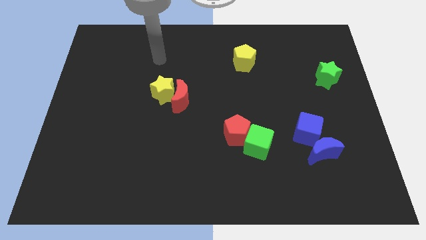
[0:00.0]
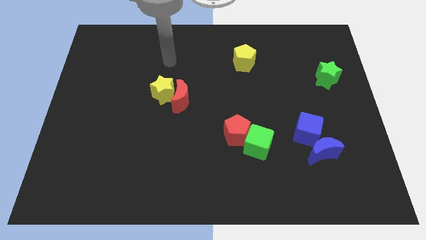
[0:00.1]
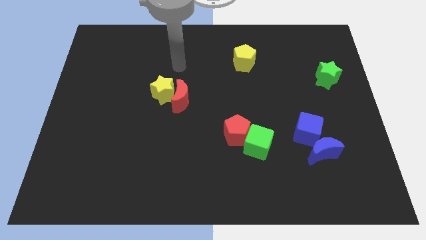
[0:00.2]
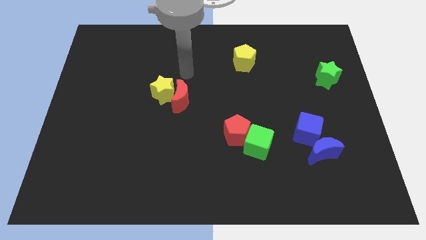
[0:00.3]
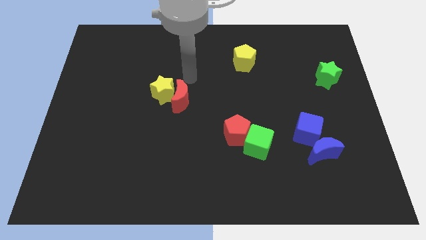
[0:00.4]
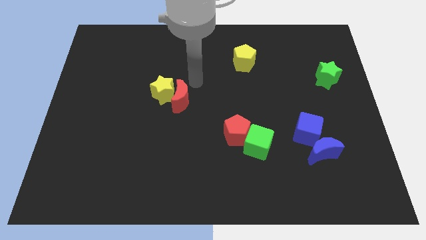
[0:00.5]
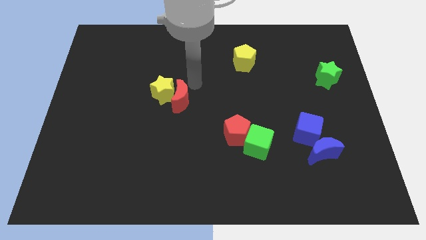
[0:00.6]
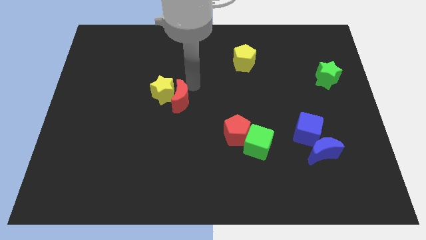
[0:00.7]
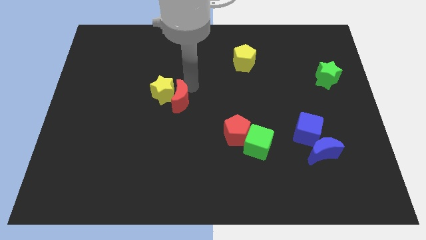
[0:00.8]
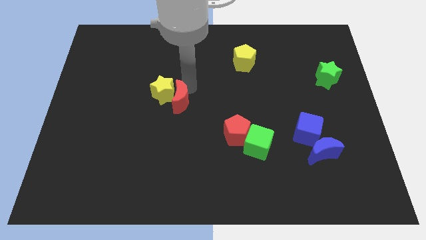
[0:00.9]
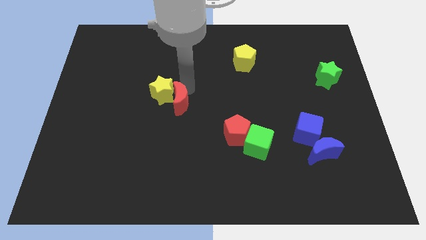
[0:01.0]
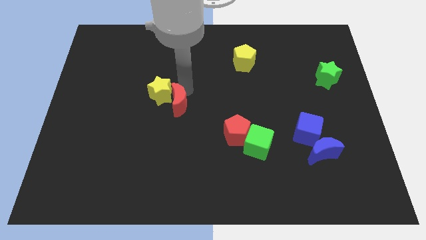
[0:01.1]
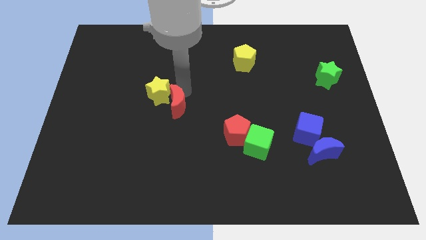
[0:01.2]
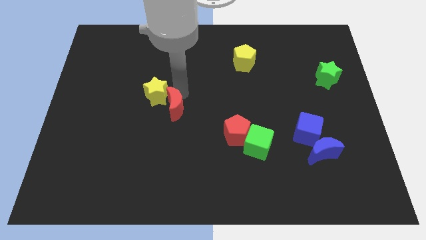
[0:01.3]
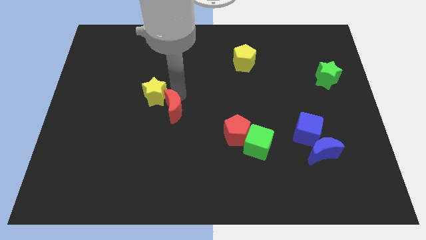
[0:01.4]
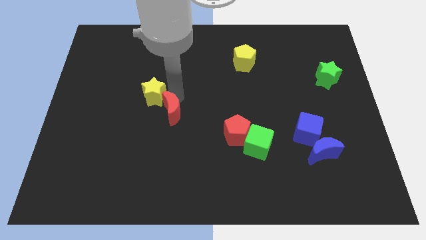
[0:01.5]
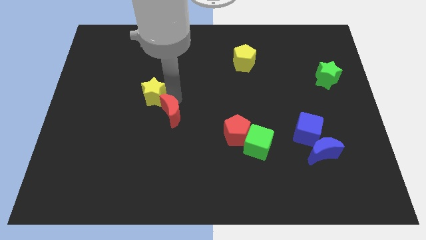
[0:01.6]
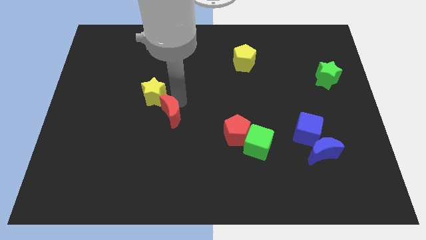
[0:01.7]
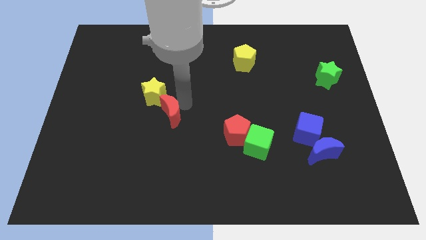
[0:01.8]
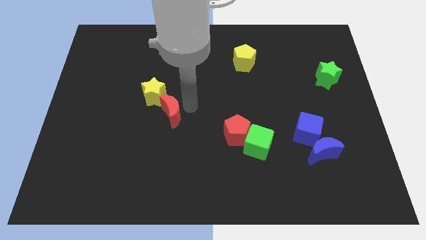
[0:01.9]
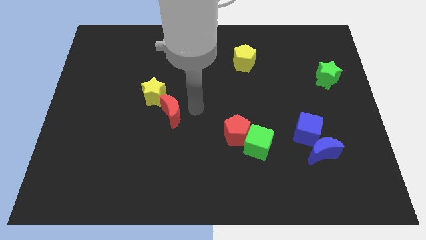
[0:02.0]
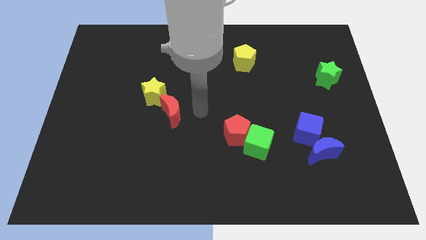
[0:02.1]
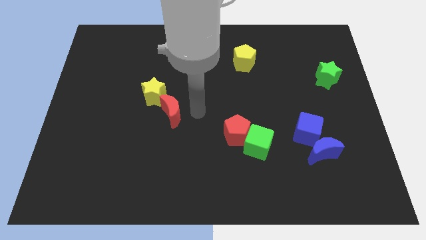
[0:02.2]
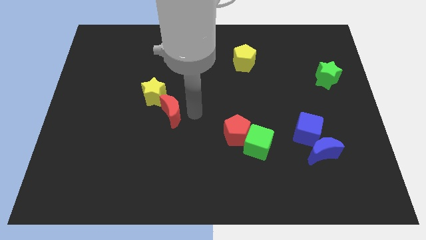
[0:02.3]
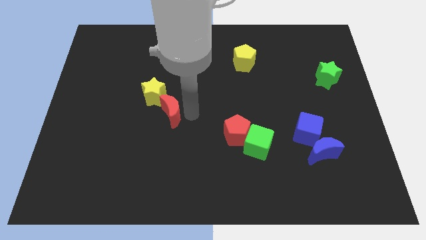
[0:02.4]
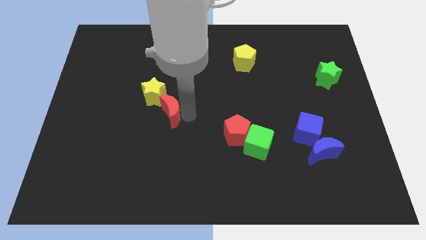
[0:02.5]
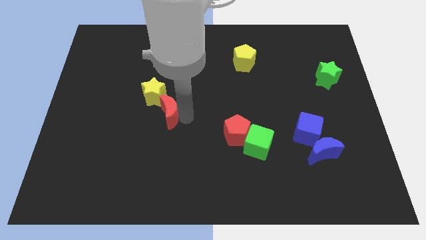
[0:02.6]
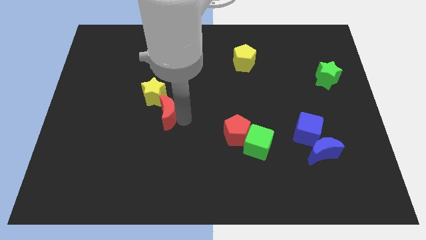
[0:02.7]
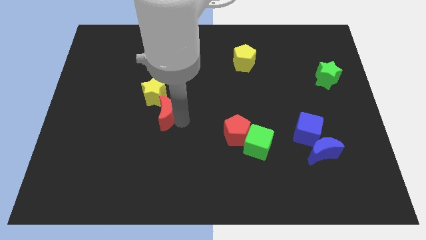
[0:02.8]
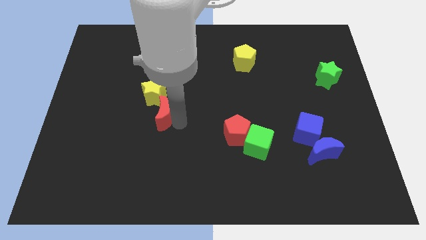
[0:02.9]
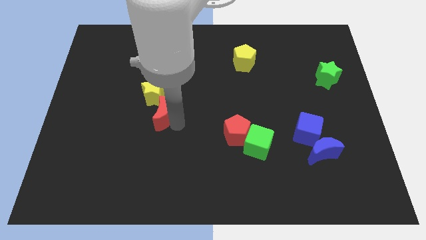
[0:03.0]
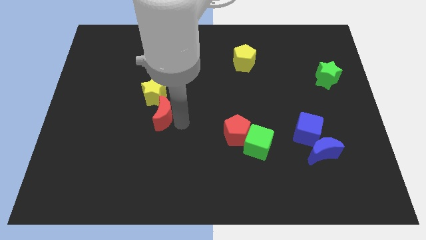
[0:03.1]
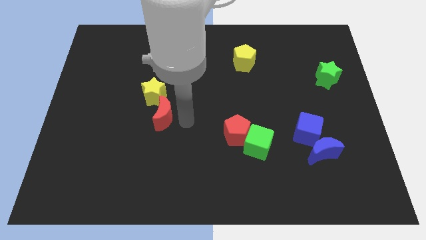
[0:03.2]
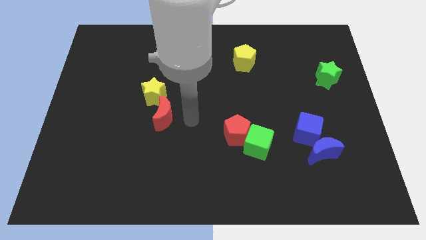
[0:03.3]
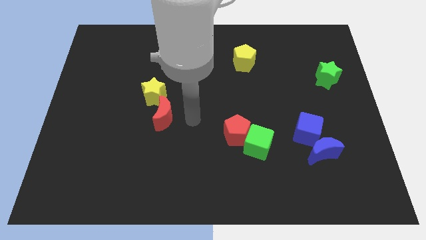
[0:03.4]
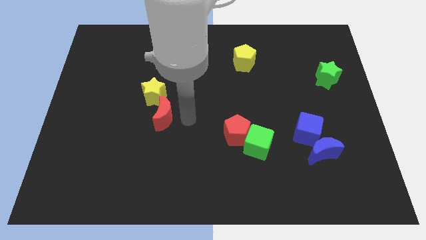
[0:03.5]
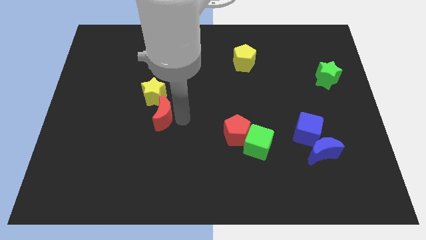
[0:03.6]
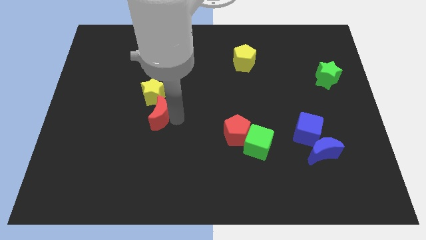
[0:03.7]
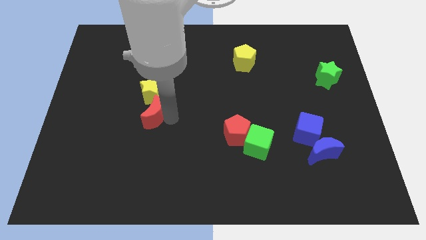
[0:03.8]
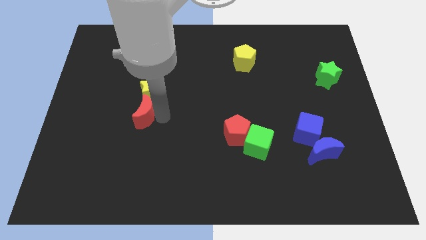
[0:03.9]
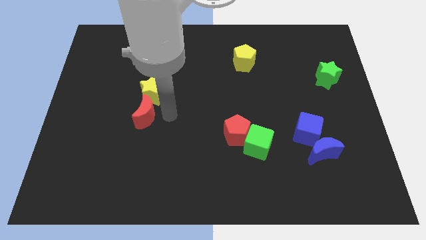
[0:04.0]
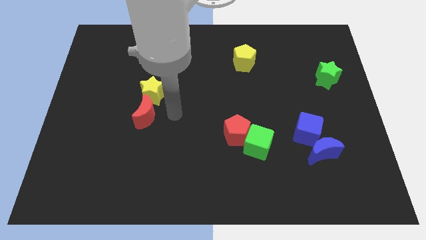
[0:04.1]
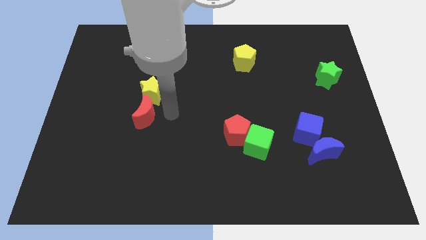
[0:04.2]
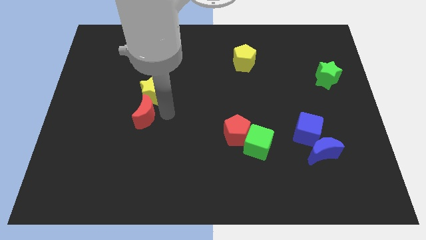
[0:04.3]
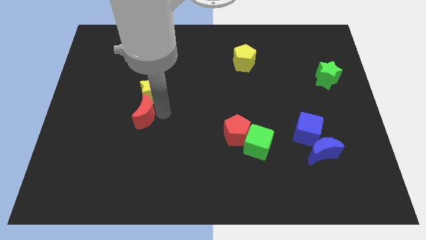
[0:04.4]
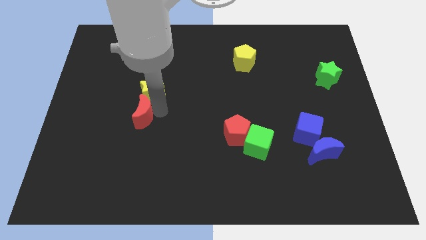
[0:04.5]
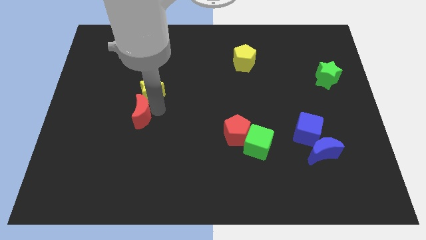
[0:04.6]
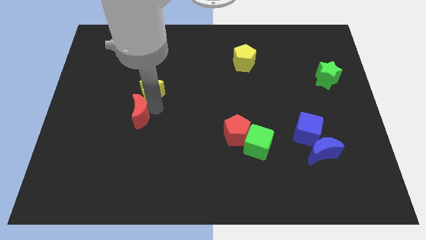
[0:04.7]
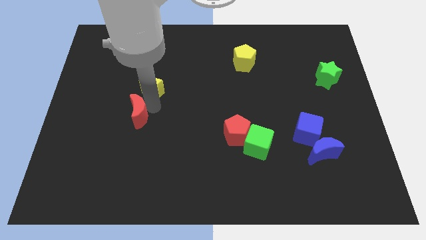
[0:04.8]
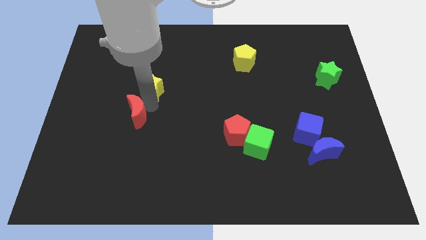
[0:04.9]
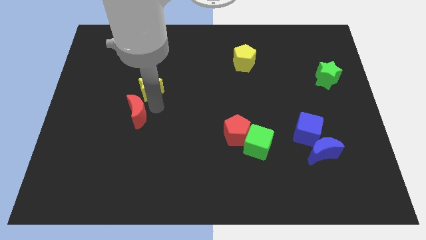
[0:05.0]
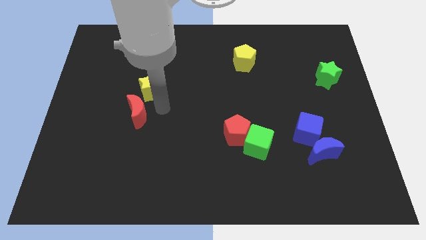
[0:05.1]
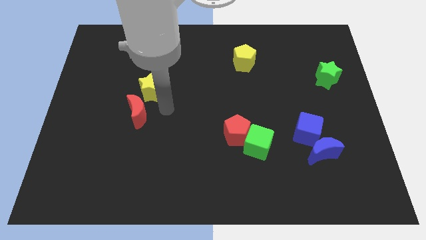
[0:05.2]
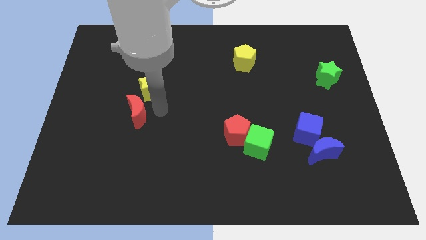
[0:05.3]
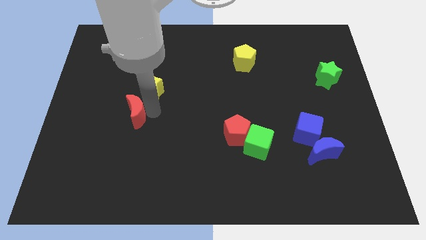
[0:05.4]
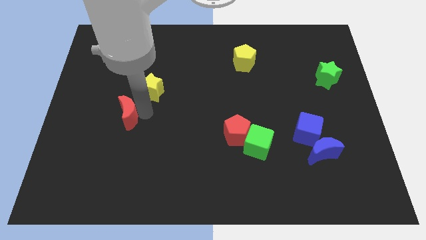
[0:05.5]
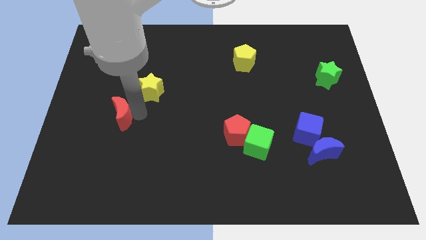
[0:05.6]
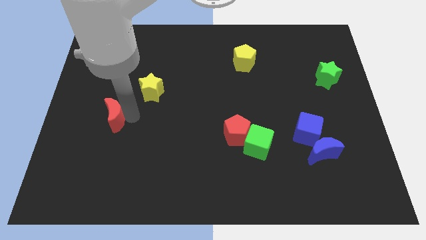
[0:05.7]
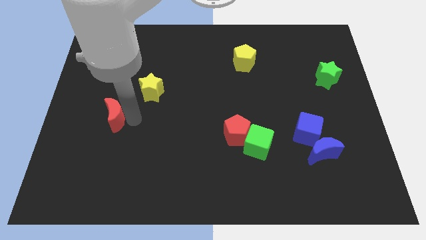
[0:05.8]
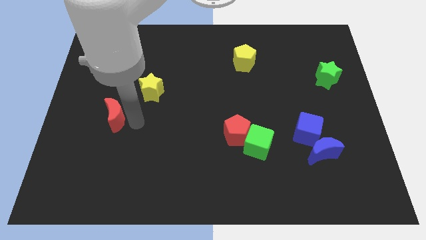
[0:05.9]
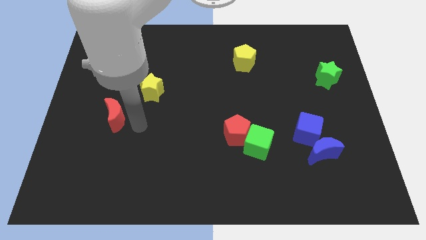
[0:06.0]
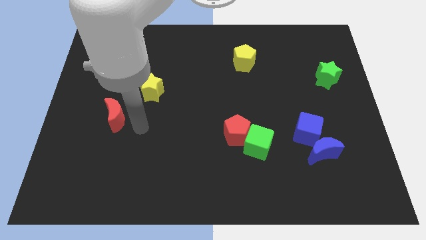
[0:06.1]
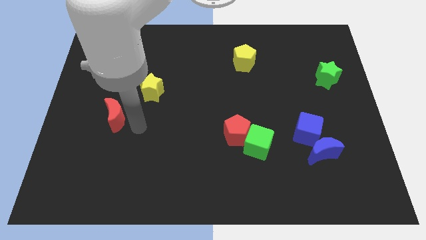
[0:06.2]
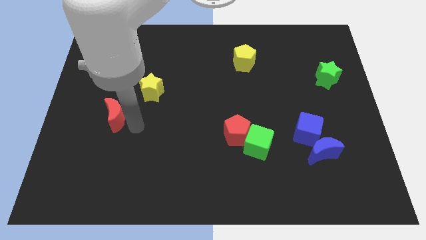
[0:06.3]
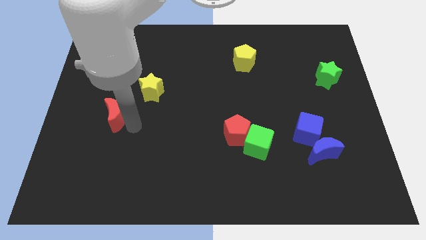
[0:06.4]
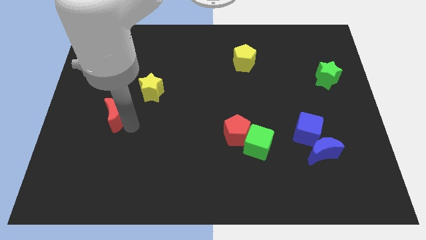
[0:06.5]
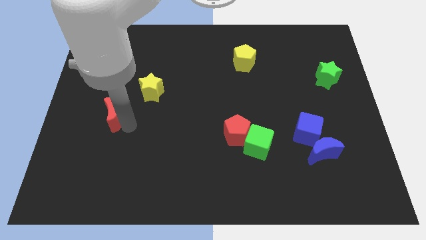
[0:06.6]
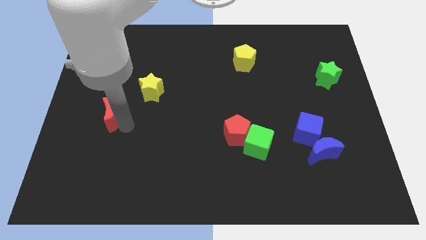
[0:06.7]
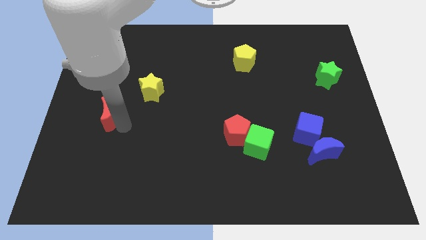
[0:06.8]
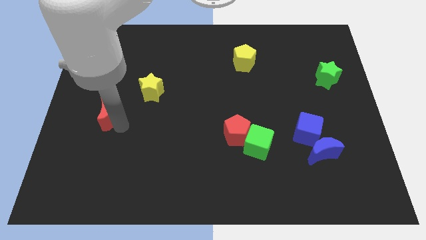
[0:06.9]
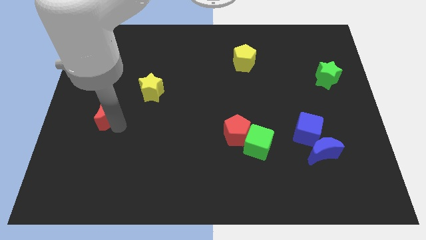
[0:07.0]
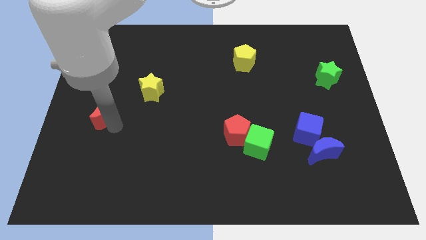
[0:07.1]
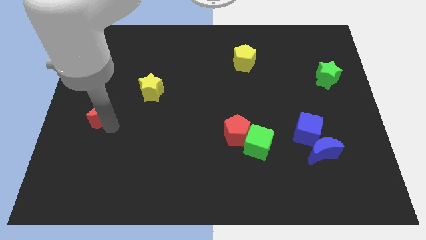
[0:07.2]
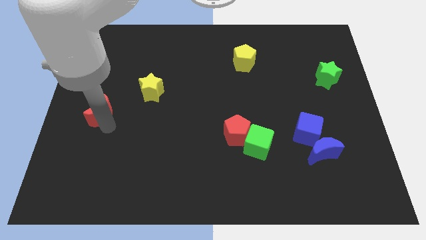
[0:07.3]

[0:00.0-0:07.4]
slide the red moon to the left side
